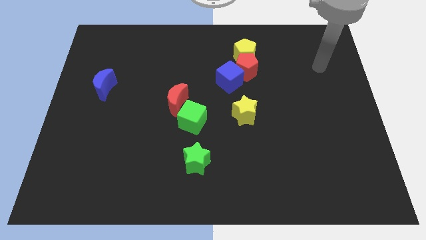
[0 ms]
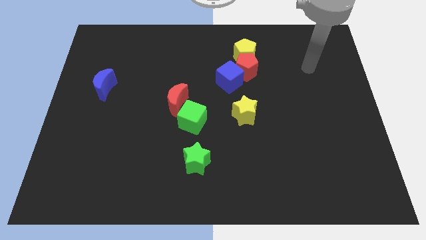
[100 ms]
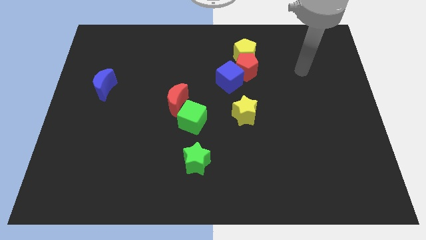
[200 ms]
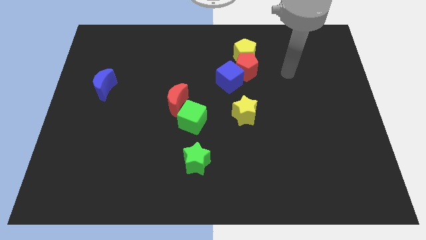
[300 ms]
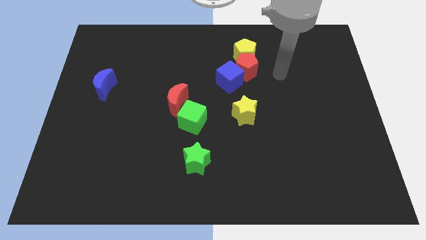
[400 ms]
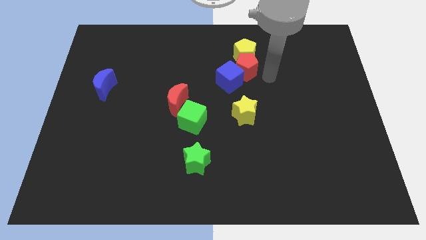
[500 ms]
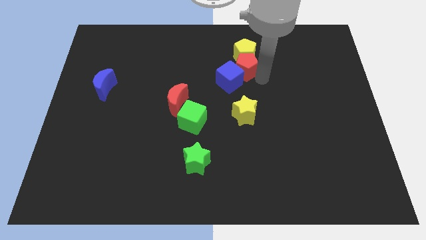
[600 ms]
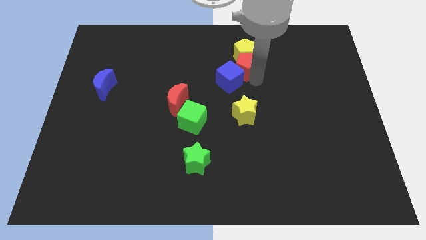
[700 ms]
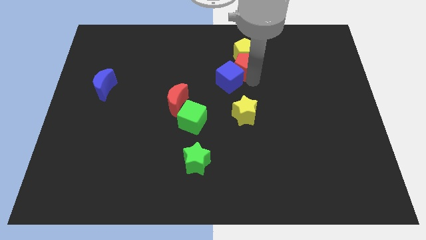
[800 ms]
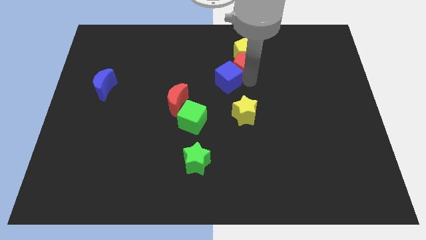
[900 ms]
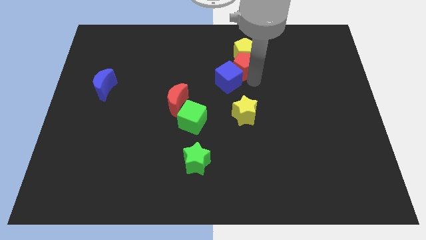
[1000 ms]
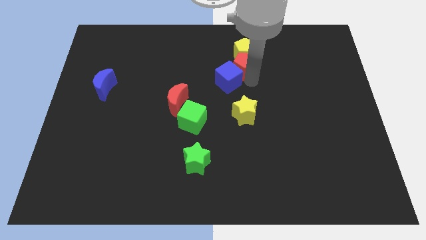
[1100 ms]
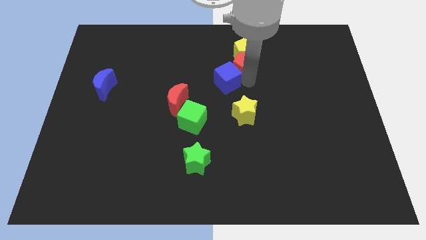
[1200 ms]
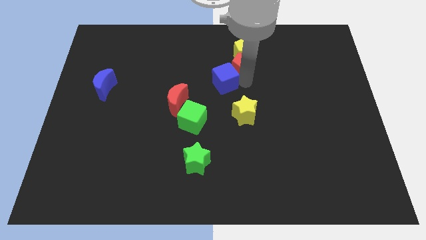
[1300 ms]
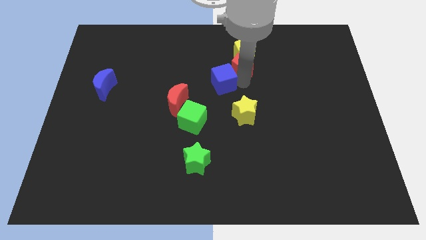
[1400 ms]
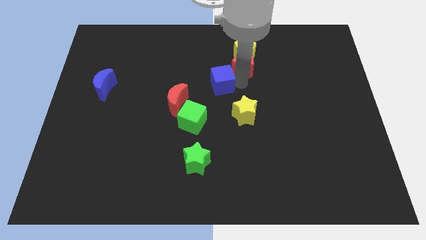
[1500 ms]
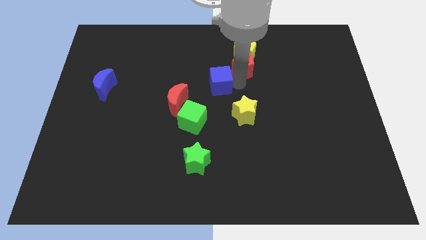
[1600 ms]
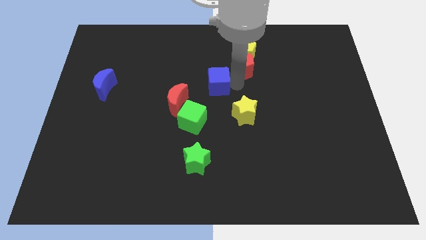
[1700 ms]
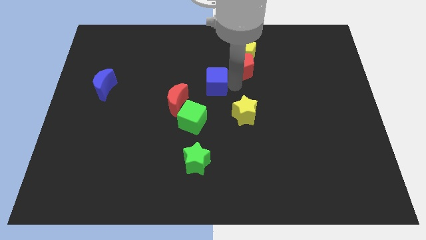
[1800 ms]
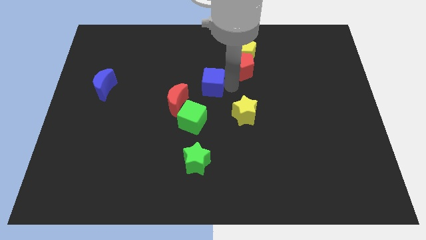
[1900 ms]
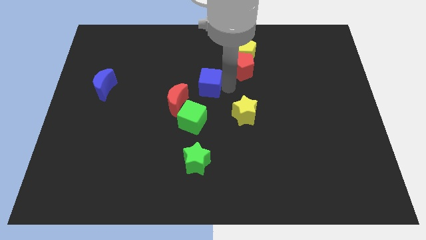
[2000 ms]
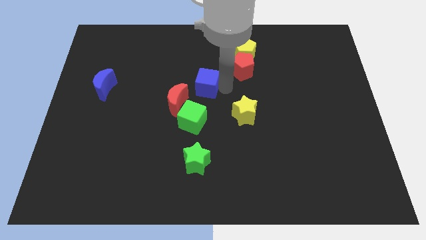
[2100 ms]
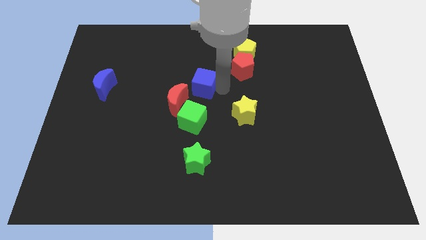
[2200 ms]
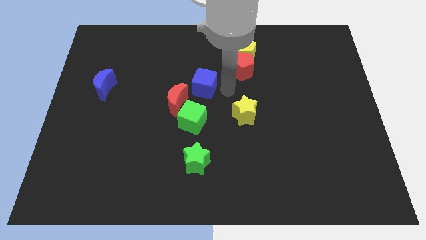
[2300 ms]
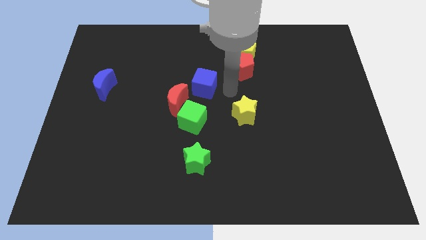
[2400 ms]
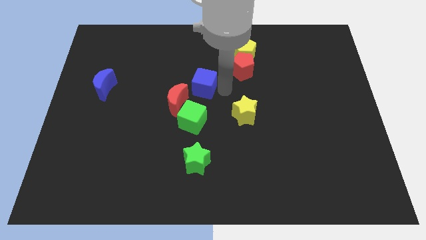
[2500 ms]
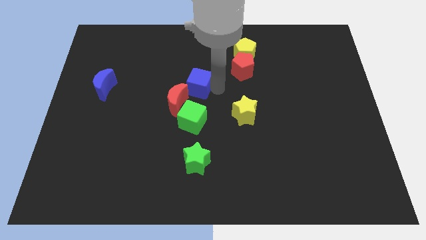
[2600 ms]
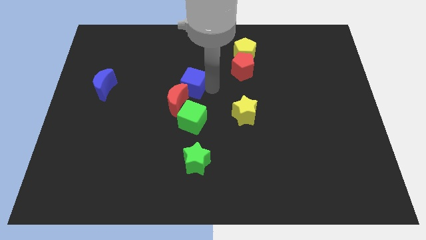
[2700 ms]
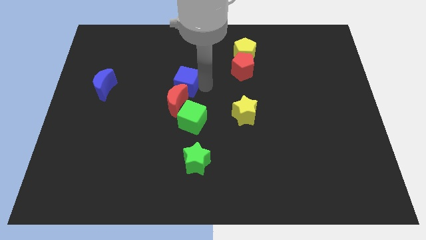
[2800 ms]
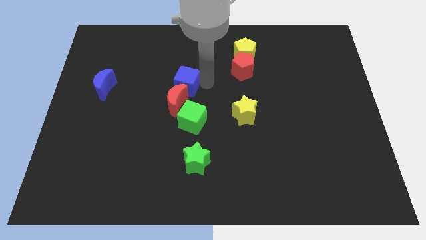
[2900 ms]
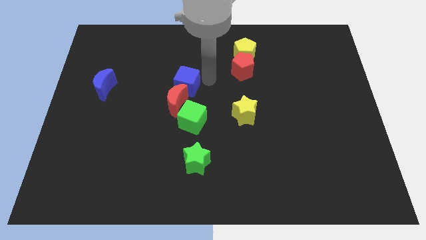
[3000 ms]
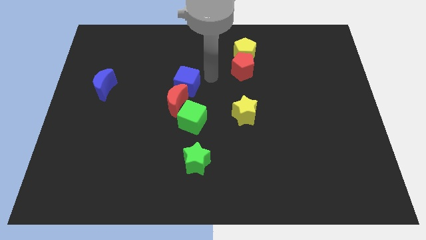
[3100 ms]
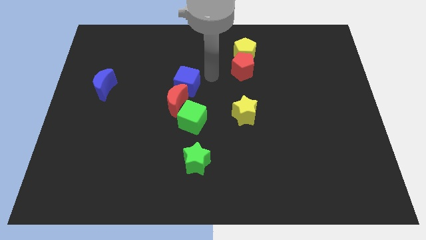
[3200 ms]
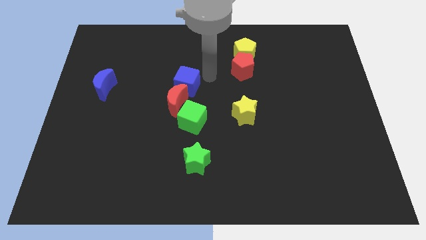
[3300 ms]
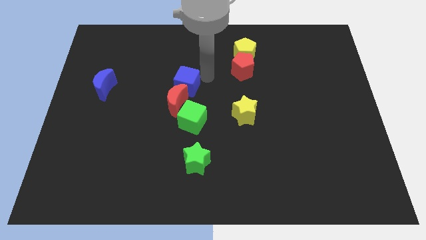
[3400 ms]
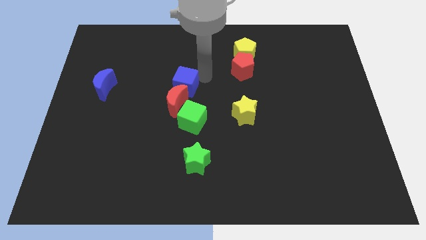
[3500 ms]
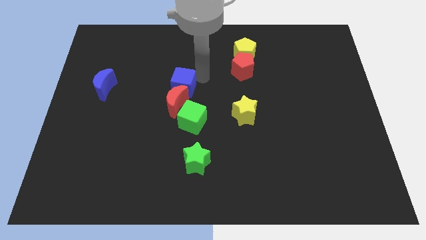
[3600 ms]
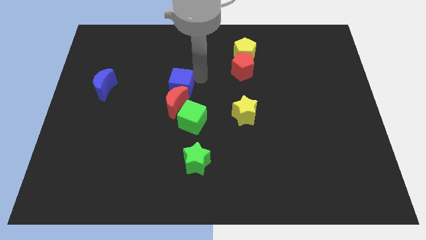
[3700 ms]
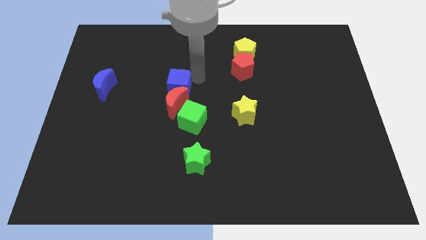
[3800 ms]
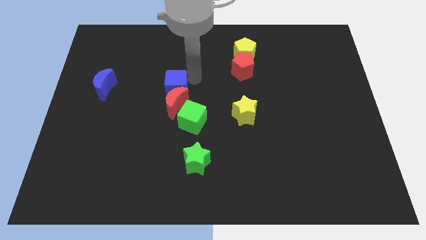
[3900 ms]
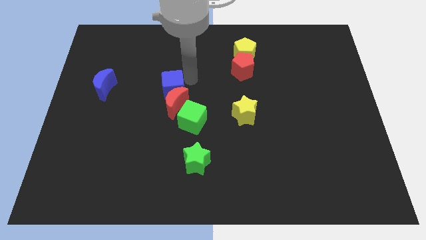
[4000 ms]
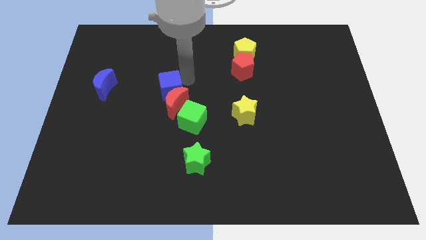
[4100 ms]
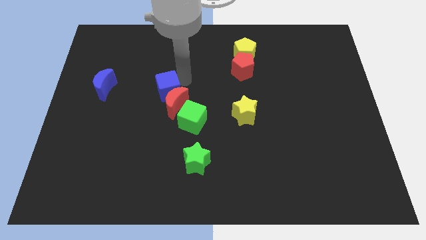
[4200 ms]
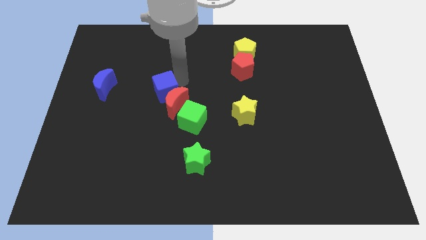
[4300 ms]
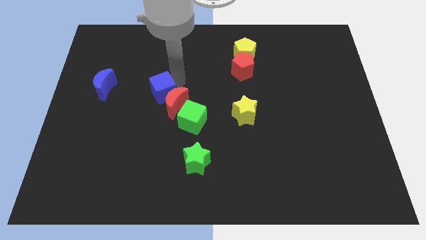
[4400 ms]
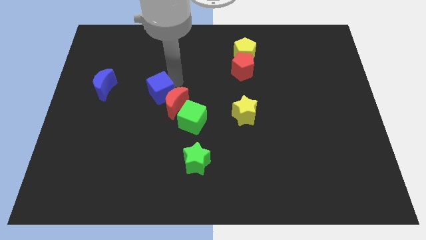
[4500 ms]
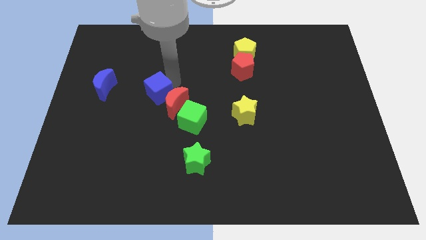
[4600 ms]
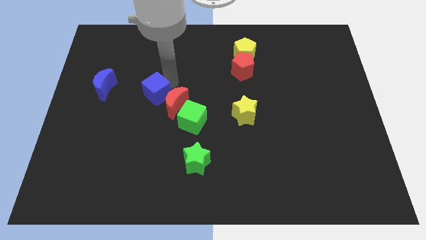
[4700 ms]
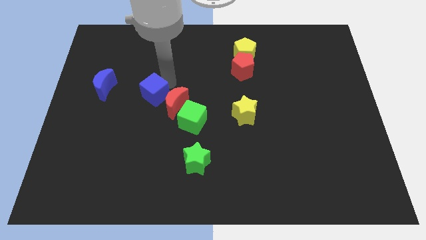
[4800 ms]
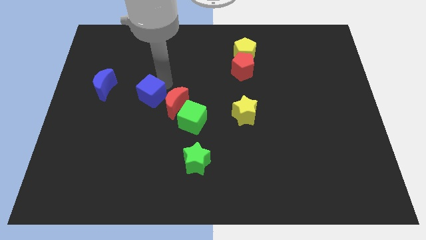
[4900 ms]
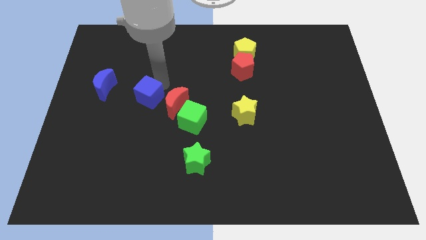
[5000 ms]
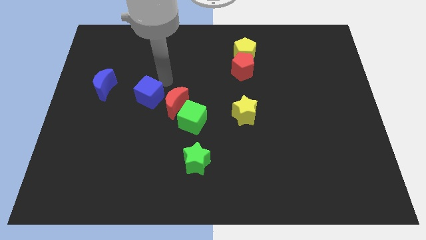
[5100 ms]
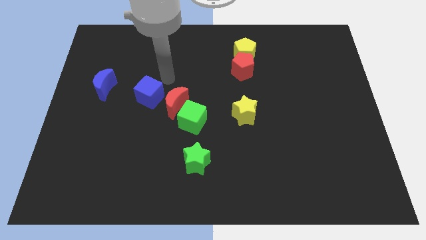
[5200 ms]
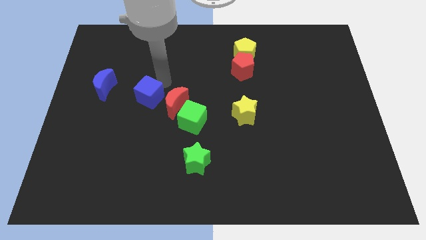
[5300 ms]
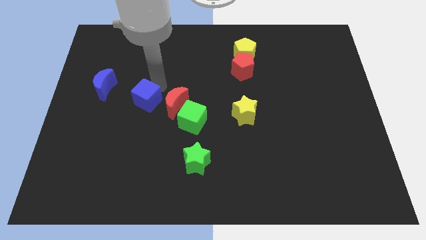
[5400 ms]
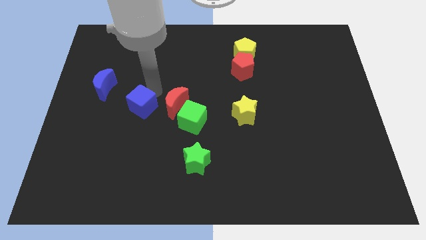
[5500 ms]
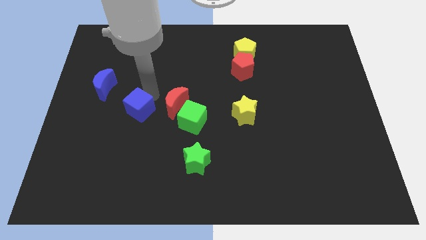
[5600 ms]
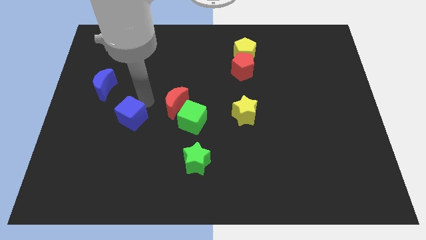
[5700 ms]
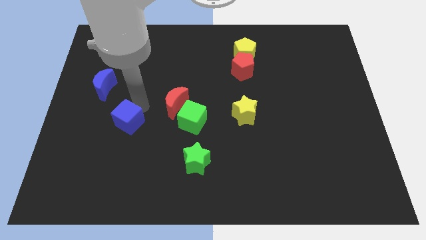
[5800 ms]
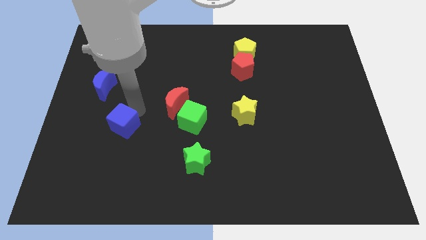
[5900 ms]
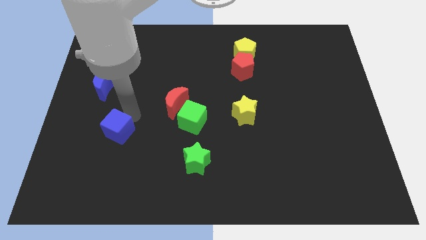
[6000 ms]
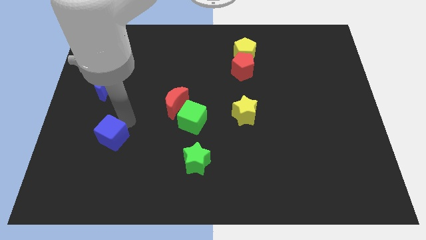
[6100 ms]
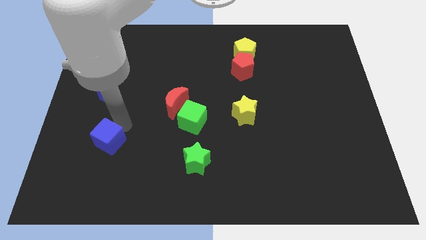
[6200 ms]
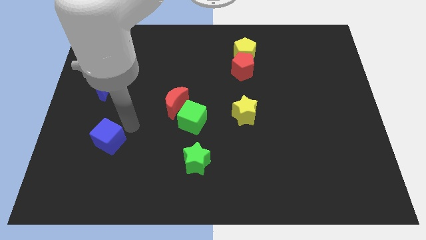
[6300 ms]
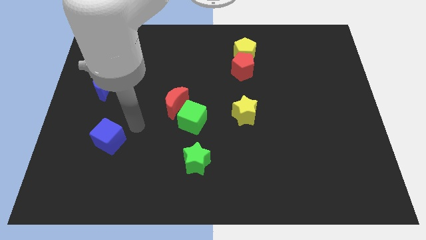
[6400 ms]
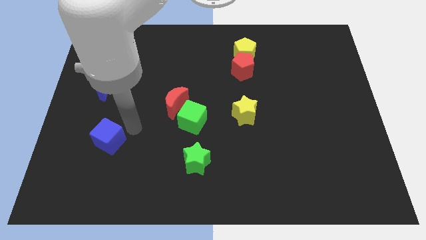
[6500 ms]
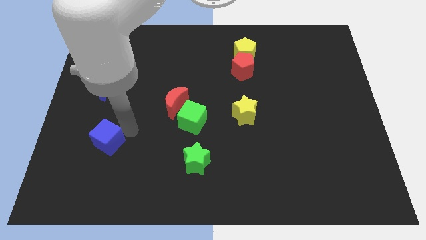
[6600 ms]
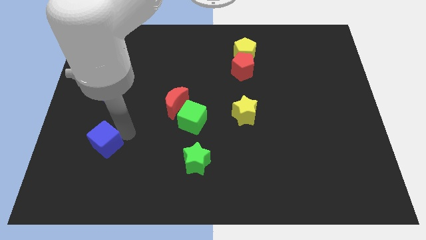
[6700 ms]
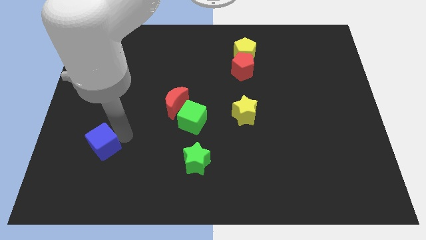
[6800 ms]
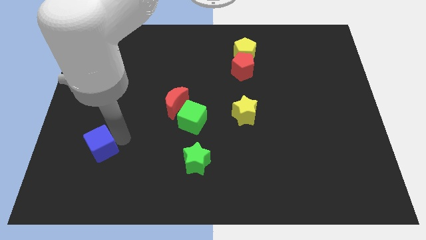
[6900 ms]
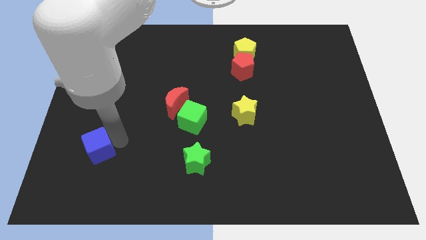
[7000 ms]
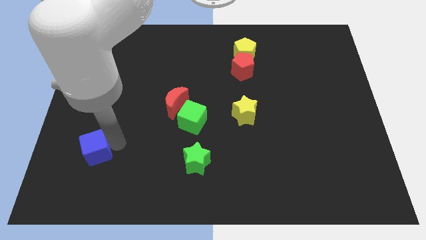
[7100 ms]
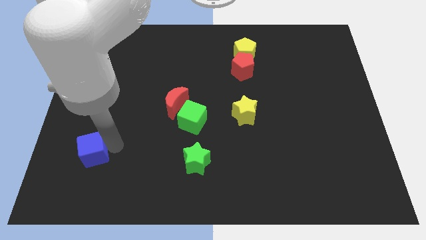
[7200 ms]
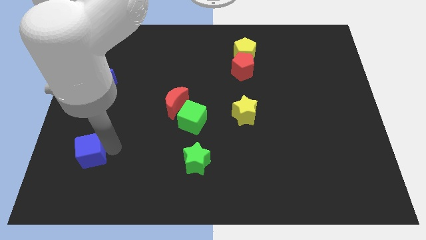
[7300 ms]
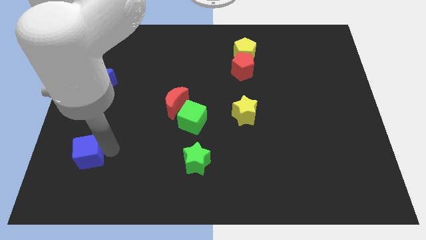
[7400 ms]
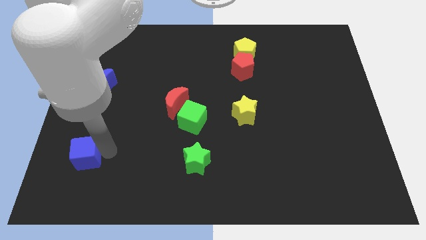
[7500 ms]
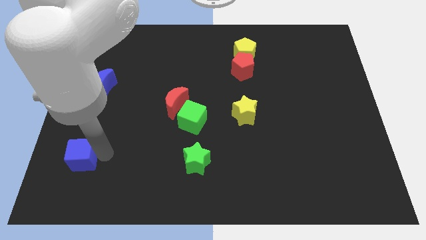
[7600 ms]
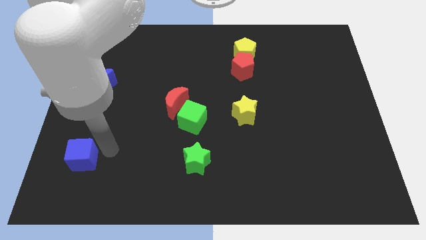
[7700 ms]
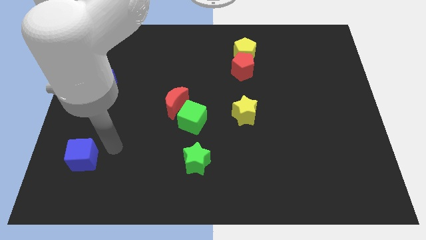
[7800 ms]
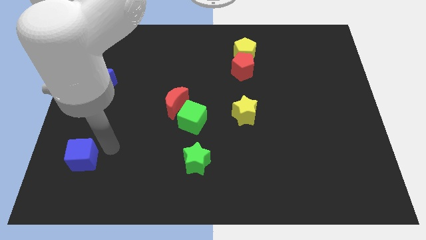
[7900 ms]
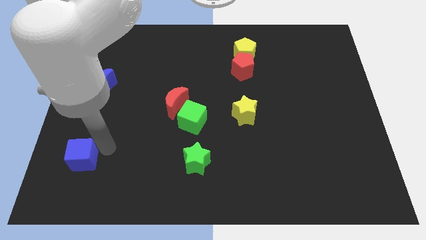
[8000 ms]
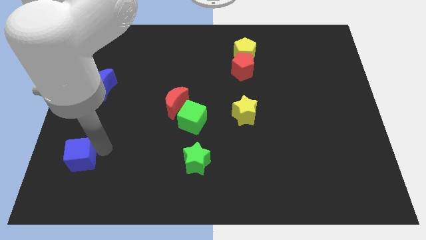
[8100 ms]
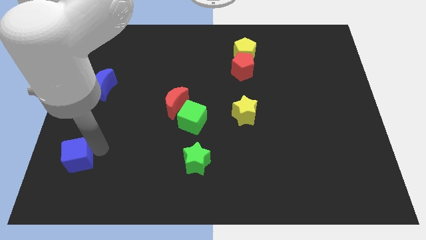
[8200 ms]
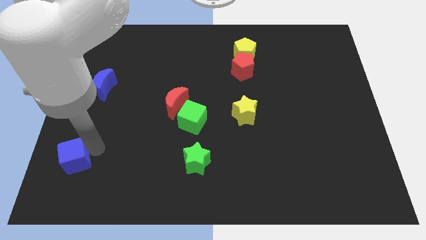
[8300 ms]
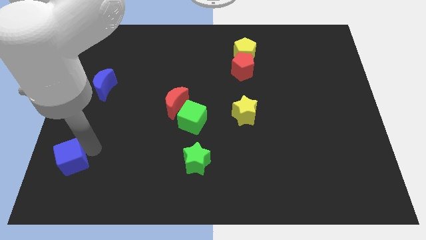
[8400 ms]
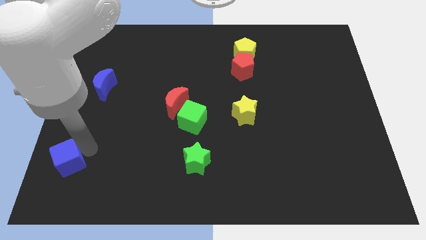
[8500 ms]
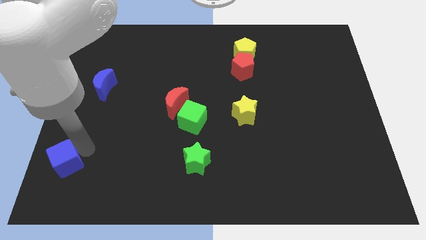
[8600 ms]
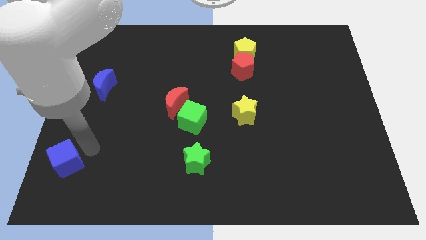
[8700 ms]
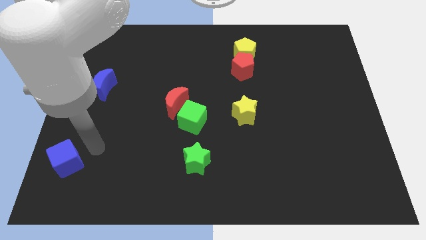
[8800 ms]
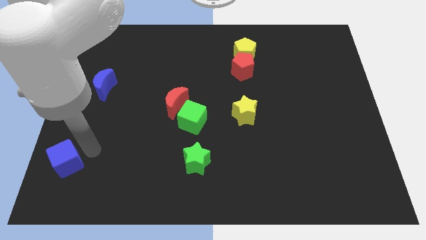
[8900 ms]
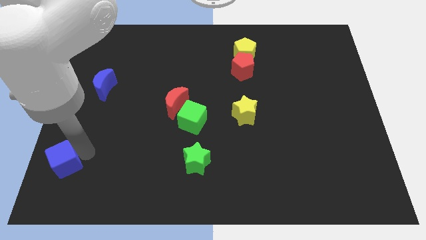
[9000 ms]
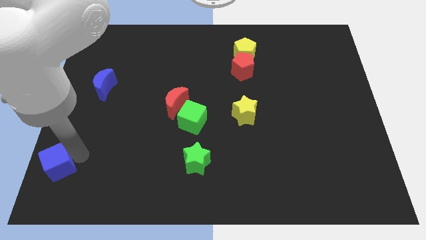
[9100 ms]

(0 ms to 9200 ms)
move the blue cube to the bottom left corner
